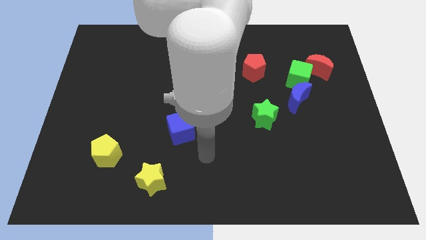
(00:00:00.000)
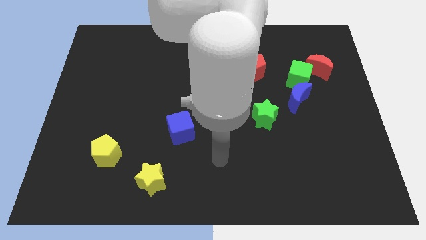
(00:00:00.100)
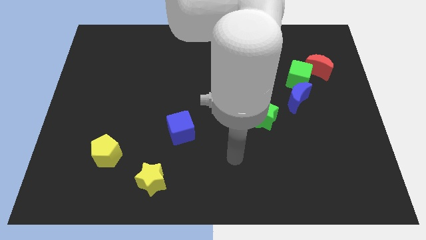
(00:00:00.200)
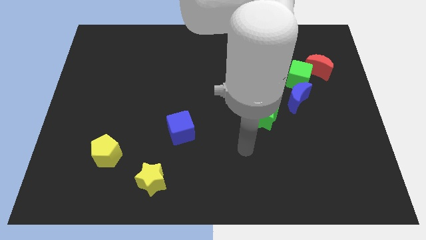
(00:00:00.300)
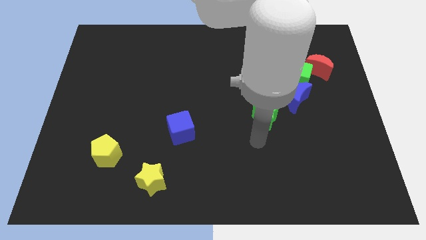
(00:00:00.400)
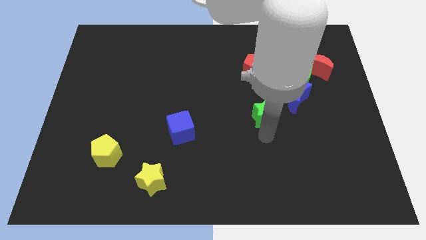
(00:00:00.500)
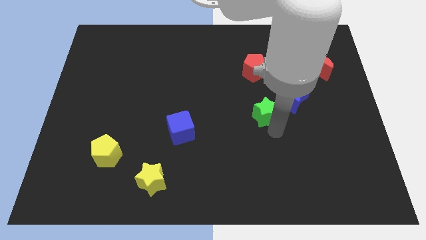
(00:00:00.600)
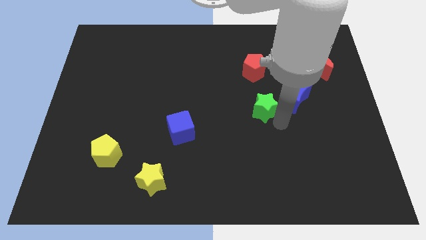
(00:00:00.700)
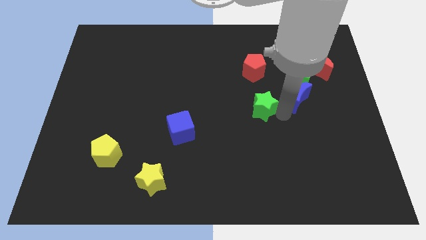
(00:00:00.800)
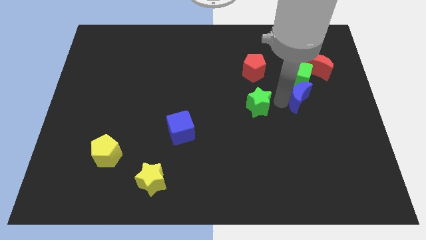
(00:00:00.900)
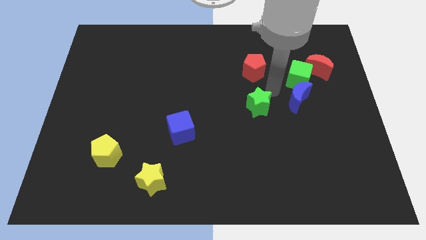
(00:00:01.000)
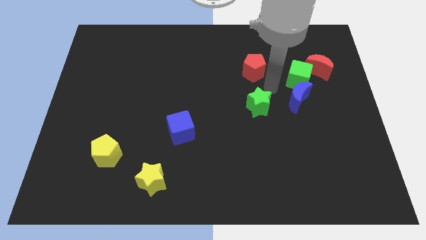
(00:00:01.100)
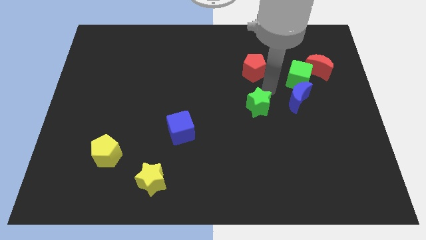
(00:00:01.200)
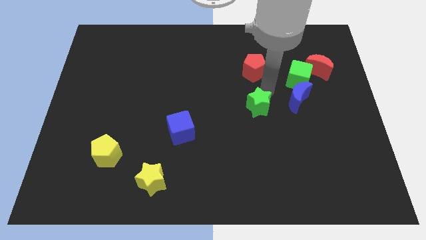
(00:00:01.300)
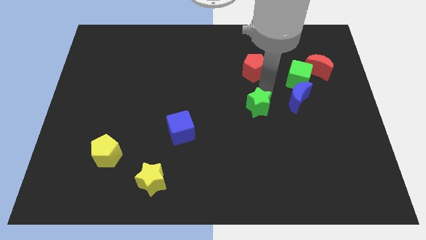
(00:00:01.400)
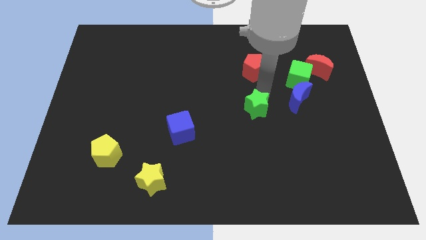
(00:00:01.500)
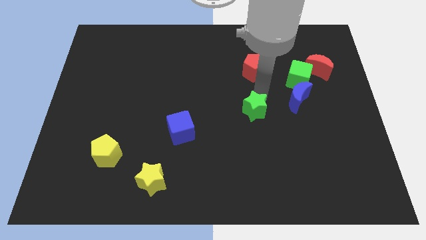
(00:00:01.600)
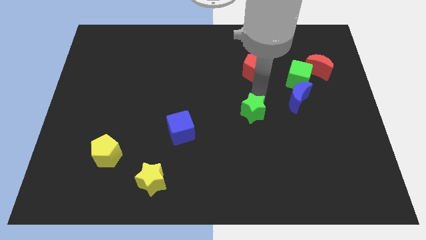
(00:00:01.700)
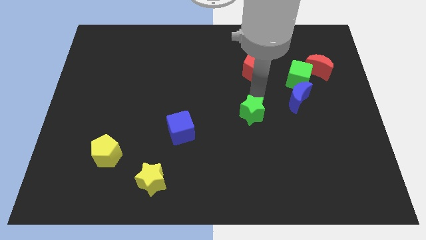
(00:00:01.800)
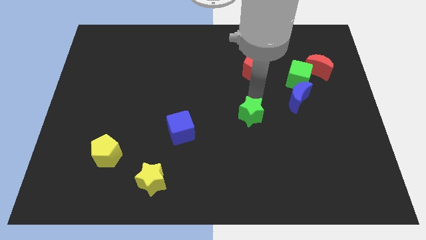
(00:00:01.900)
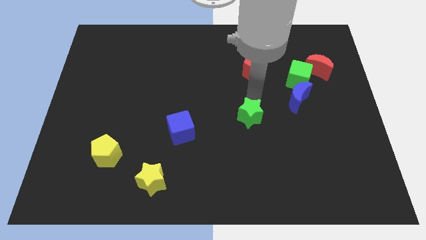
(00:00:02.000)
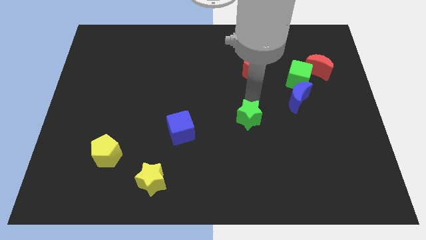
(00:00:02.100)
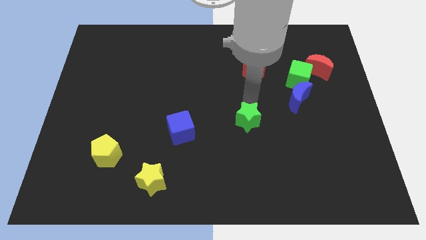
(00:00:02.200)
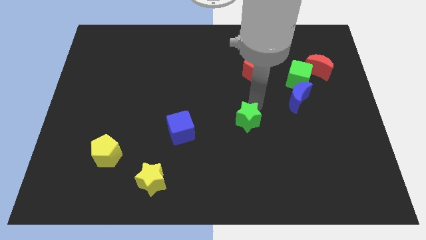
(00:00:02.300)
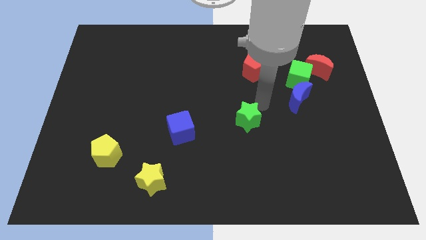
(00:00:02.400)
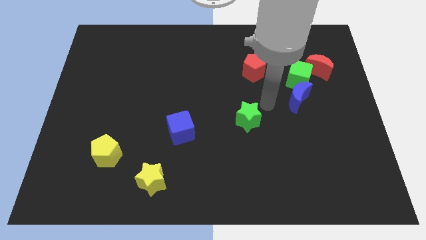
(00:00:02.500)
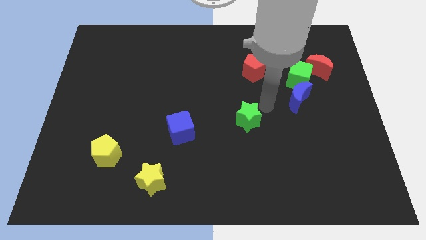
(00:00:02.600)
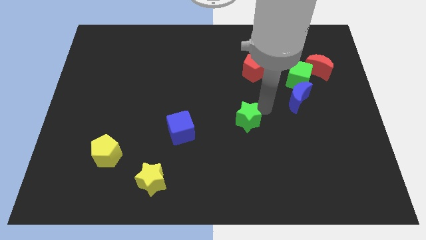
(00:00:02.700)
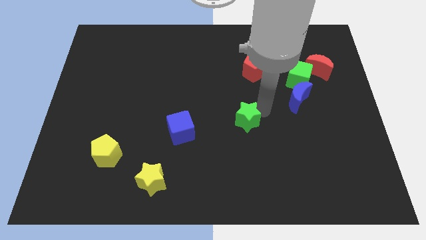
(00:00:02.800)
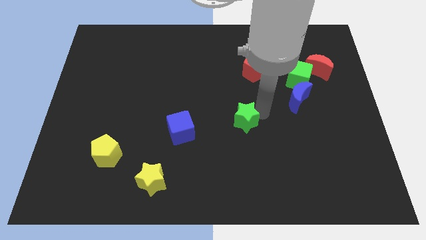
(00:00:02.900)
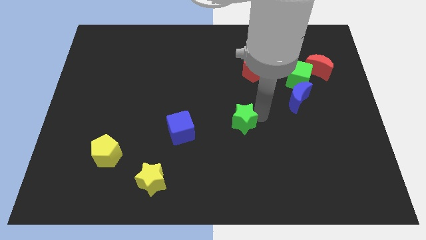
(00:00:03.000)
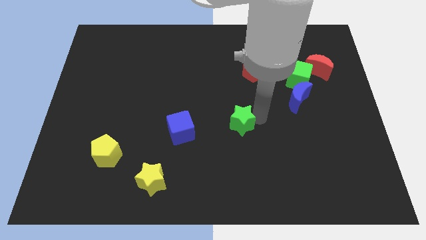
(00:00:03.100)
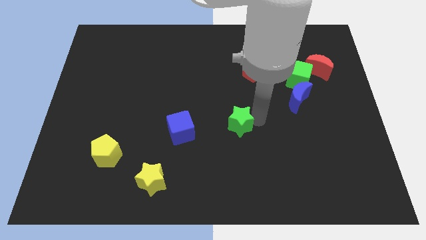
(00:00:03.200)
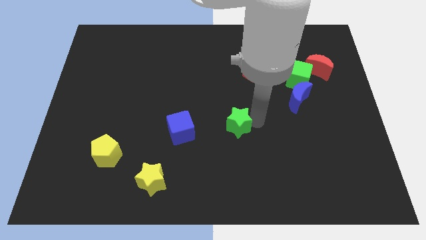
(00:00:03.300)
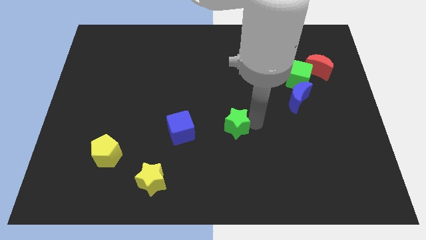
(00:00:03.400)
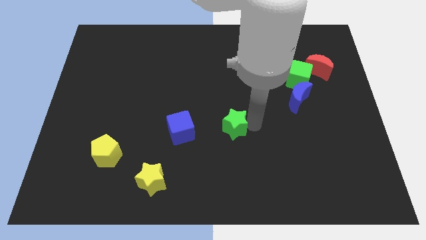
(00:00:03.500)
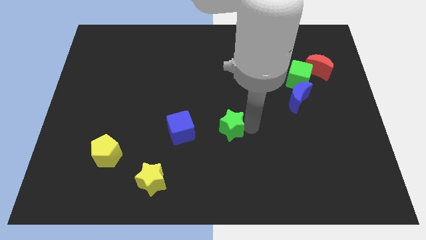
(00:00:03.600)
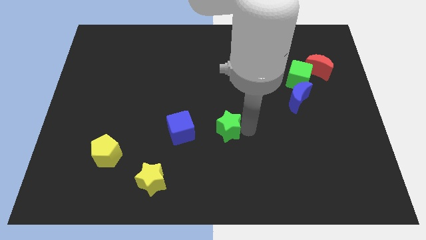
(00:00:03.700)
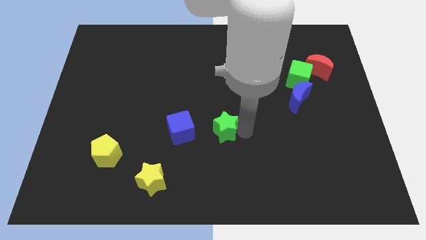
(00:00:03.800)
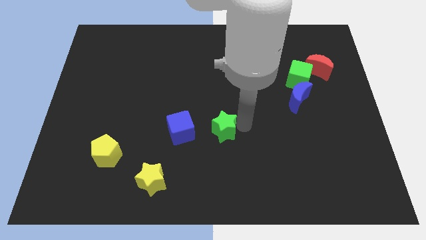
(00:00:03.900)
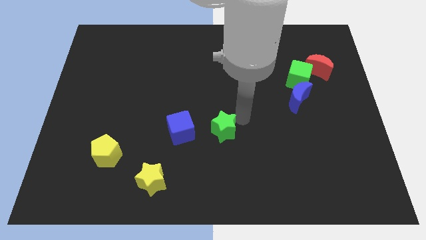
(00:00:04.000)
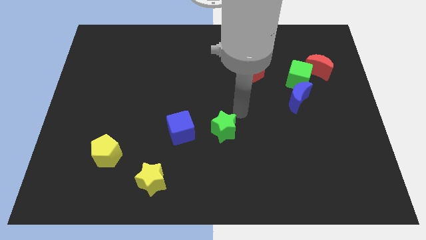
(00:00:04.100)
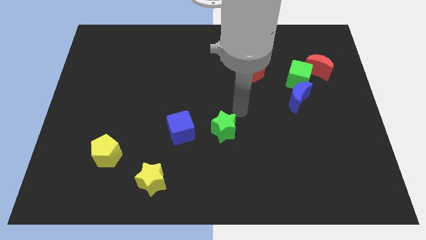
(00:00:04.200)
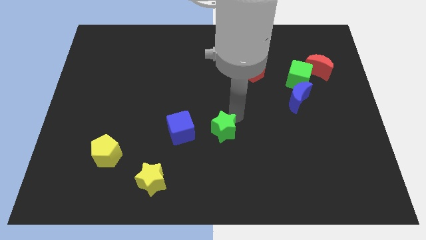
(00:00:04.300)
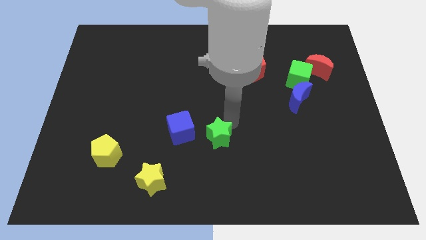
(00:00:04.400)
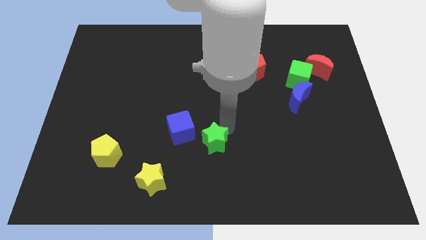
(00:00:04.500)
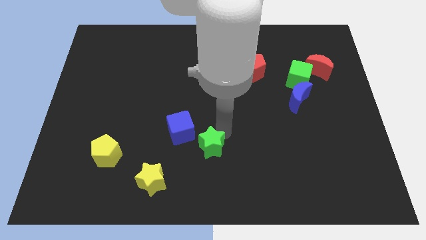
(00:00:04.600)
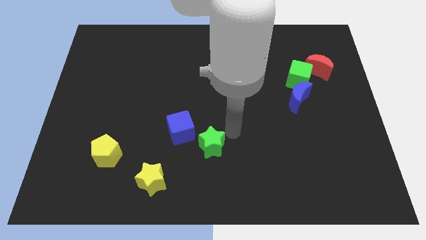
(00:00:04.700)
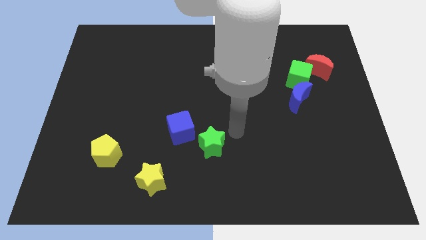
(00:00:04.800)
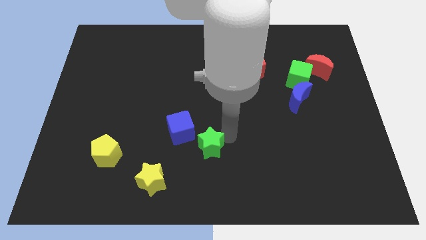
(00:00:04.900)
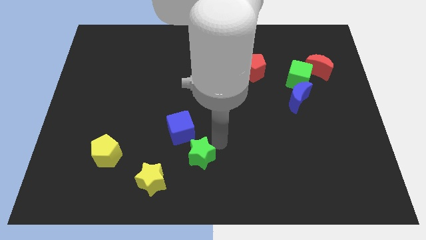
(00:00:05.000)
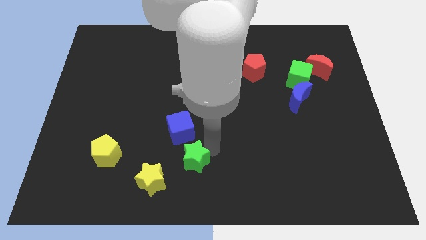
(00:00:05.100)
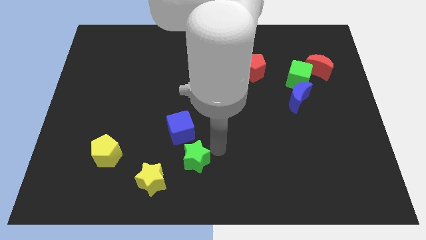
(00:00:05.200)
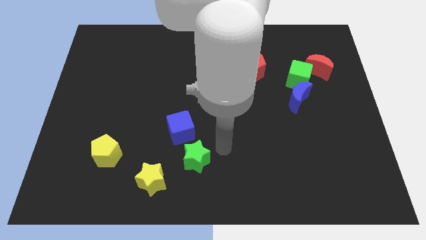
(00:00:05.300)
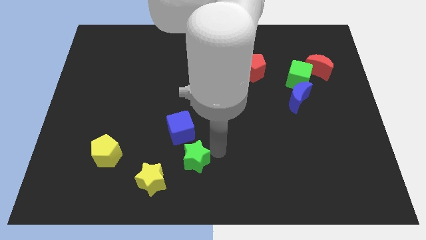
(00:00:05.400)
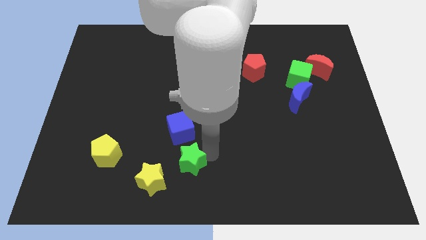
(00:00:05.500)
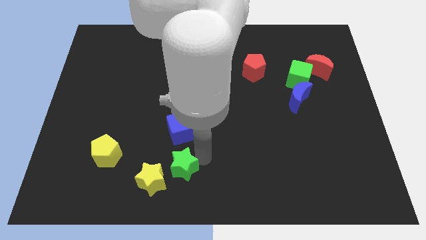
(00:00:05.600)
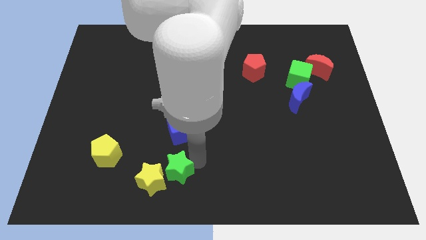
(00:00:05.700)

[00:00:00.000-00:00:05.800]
push the green star close to the yellow star

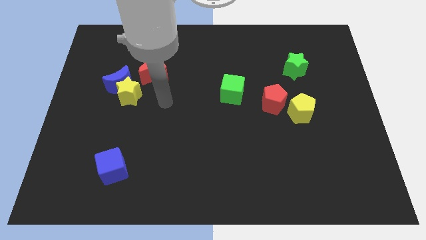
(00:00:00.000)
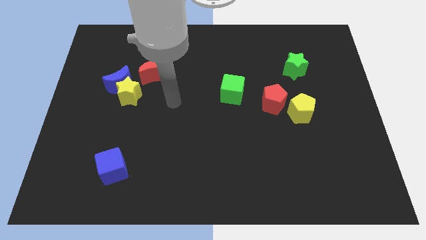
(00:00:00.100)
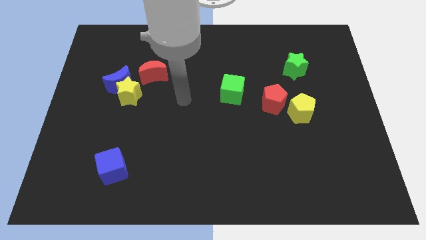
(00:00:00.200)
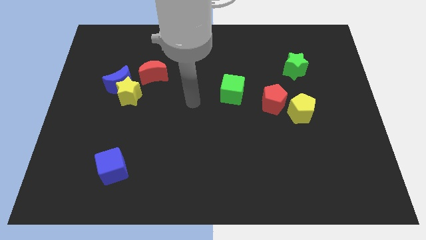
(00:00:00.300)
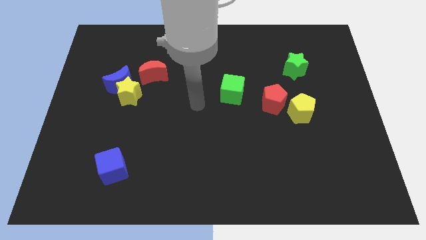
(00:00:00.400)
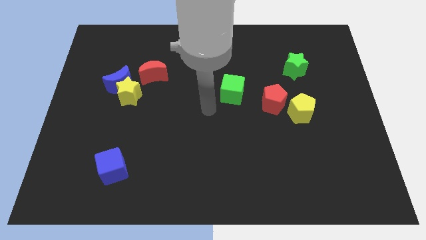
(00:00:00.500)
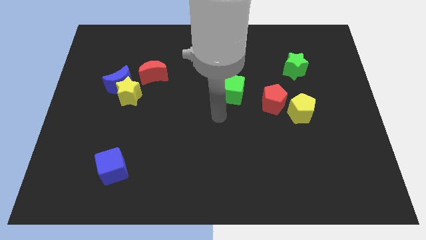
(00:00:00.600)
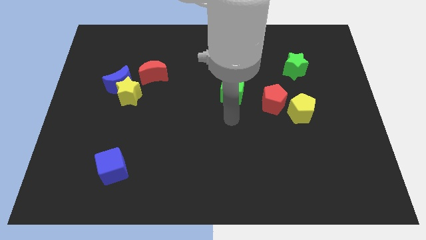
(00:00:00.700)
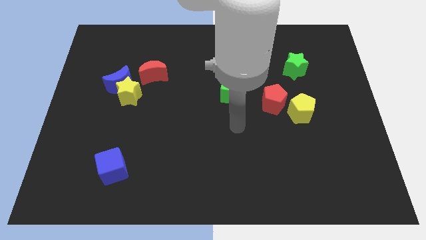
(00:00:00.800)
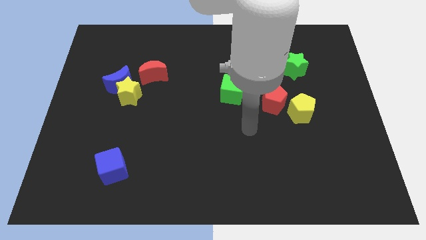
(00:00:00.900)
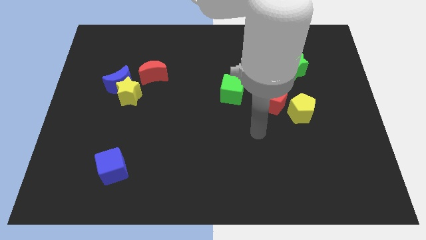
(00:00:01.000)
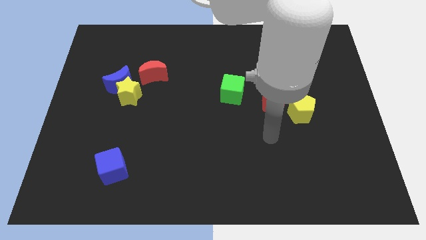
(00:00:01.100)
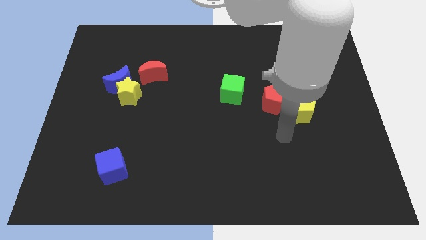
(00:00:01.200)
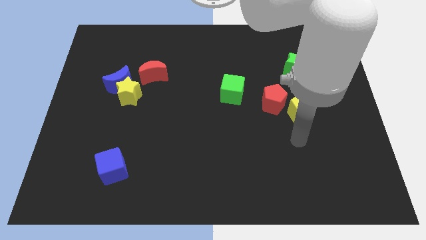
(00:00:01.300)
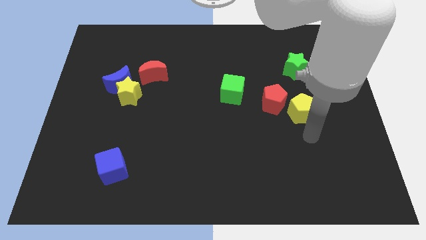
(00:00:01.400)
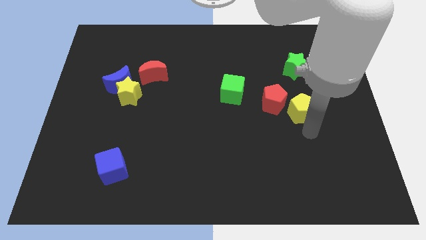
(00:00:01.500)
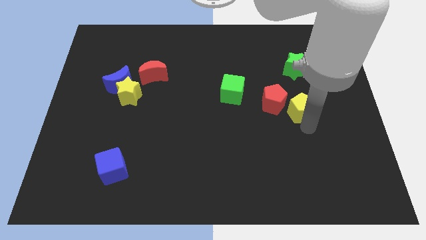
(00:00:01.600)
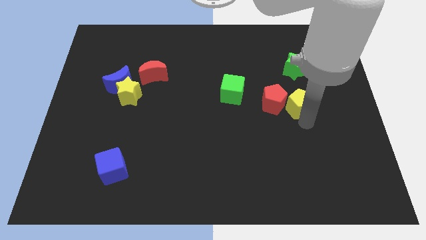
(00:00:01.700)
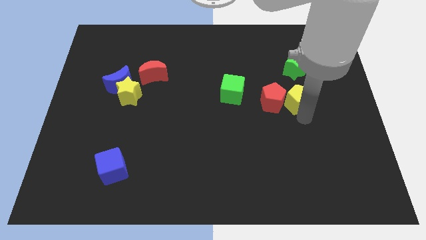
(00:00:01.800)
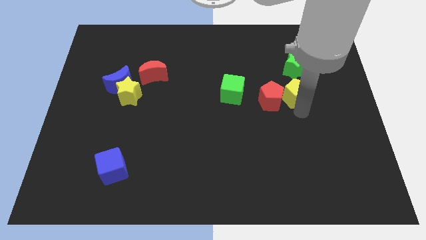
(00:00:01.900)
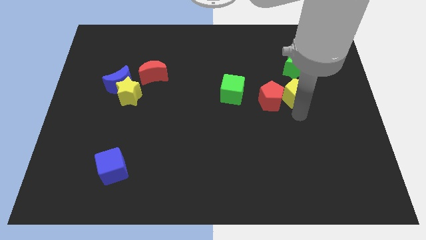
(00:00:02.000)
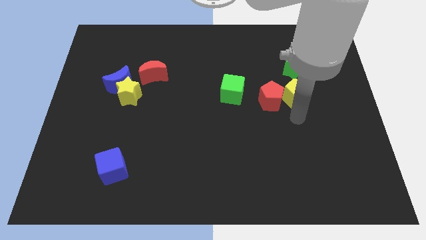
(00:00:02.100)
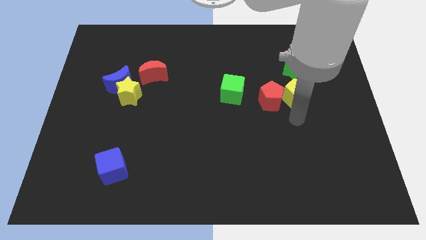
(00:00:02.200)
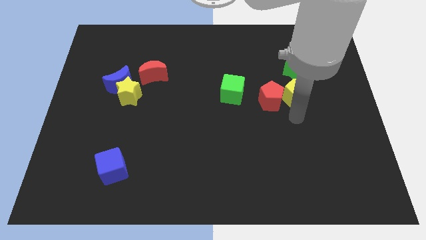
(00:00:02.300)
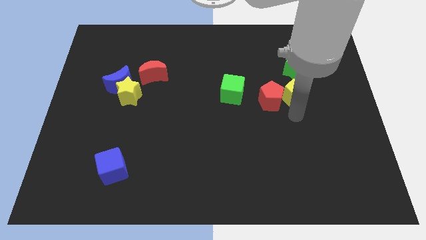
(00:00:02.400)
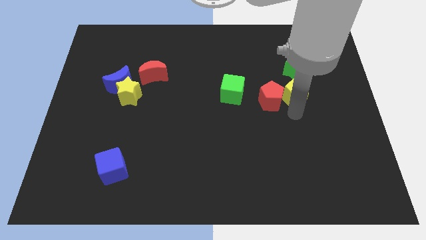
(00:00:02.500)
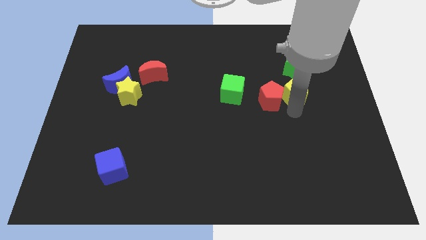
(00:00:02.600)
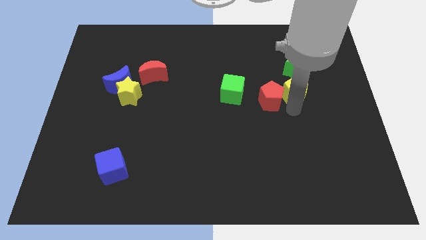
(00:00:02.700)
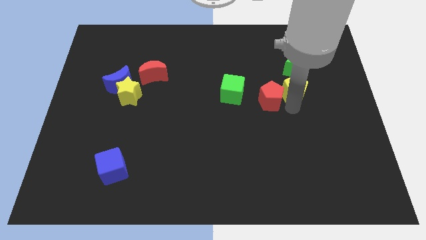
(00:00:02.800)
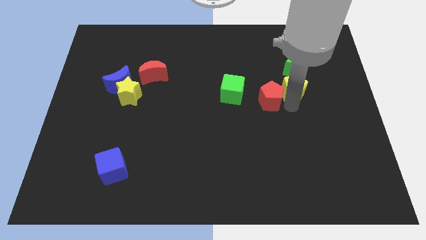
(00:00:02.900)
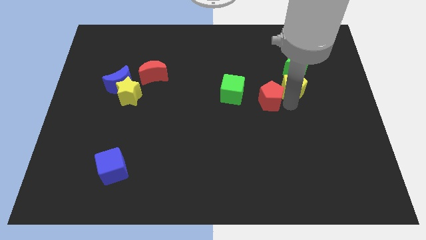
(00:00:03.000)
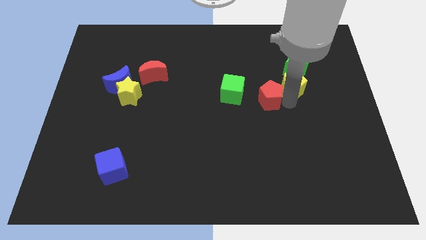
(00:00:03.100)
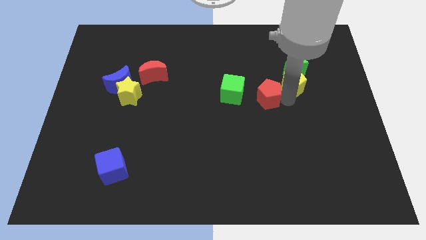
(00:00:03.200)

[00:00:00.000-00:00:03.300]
slide the yellow pentagon next to the green star
